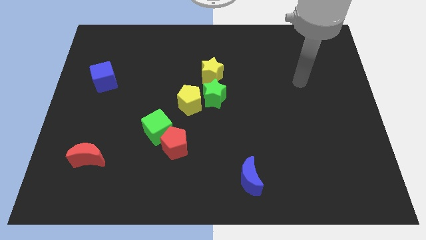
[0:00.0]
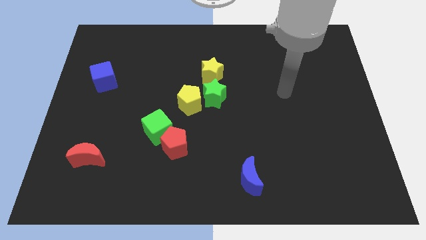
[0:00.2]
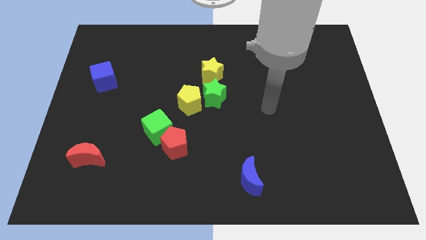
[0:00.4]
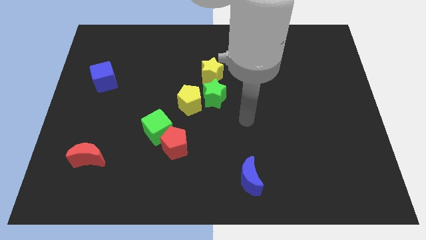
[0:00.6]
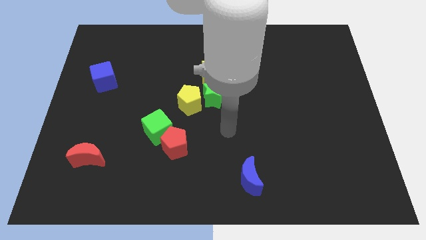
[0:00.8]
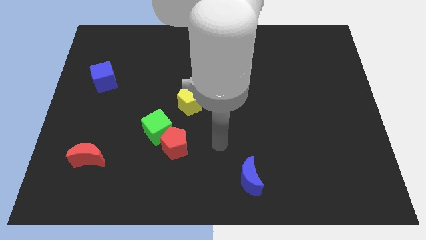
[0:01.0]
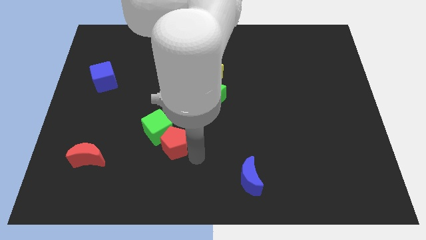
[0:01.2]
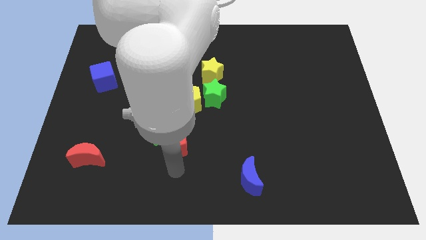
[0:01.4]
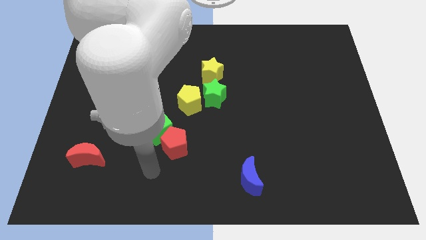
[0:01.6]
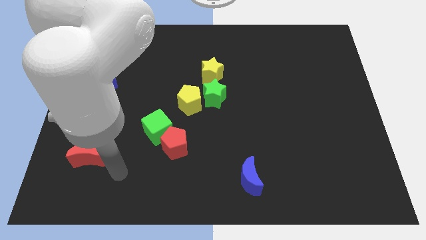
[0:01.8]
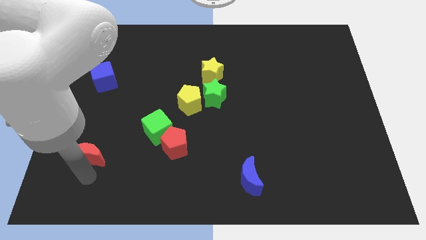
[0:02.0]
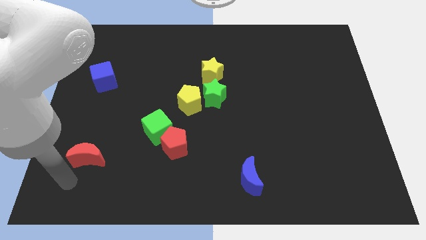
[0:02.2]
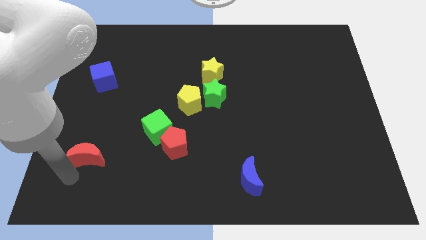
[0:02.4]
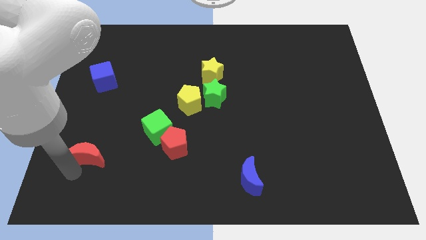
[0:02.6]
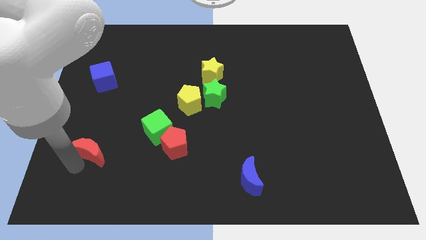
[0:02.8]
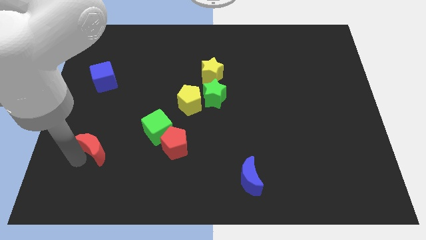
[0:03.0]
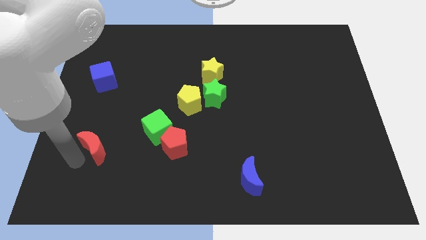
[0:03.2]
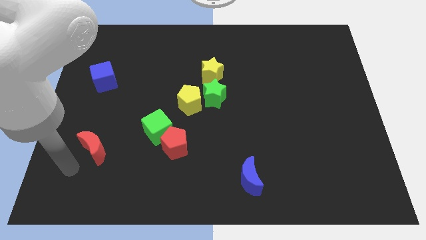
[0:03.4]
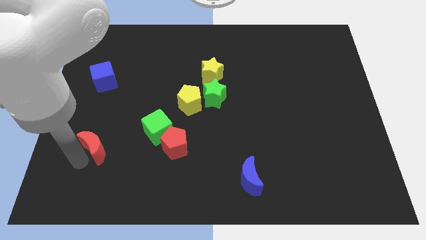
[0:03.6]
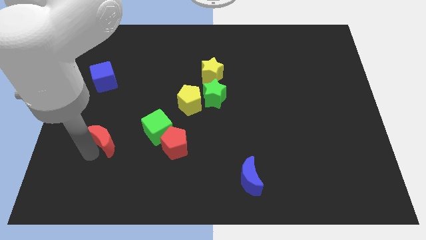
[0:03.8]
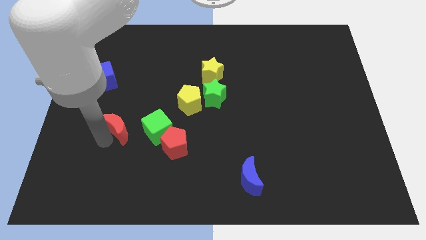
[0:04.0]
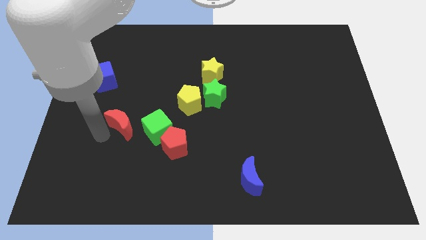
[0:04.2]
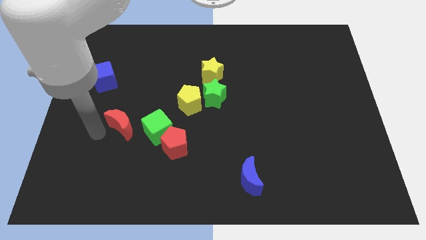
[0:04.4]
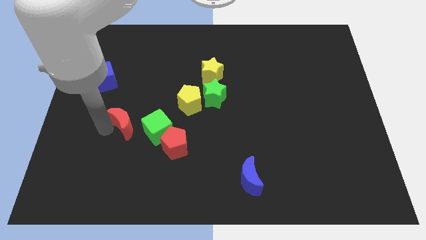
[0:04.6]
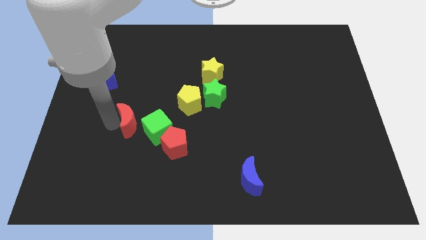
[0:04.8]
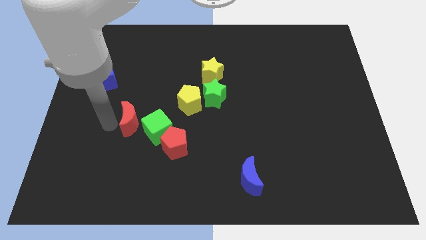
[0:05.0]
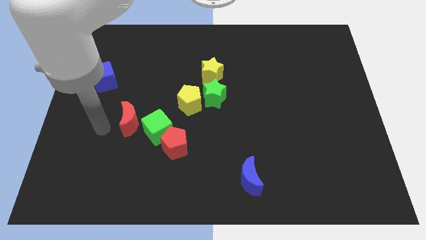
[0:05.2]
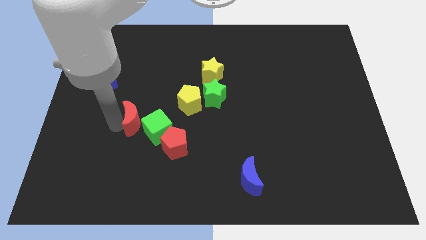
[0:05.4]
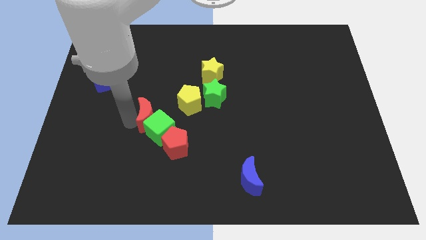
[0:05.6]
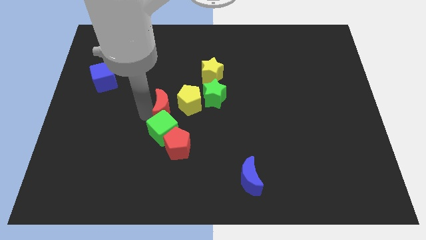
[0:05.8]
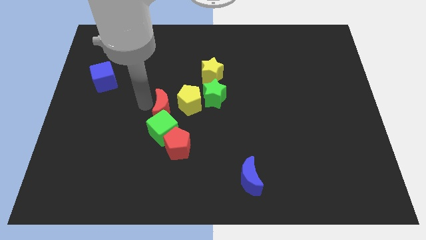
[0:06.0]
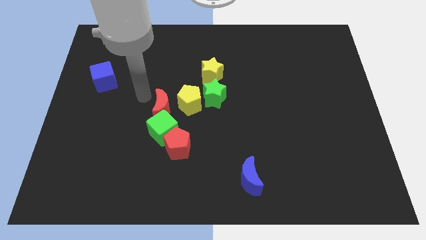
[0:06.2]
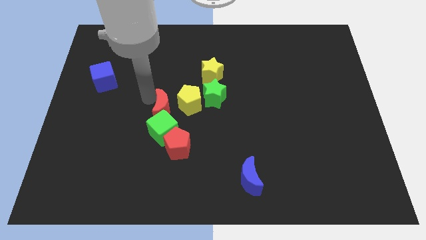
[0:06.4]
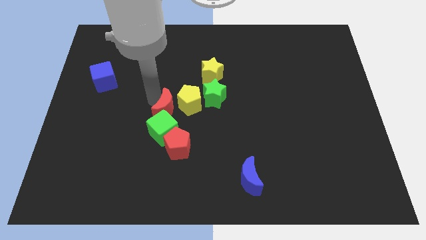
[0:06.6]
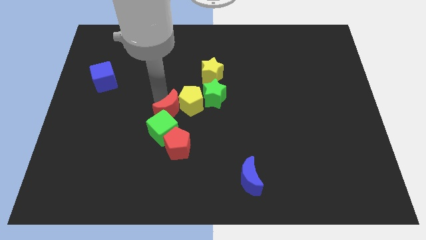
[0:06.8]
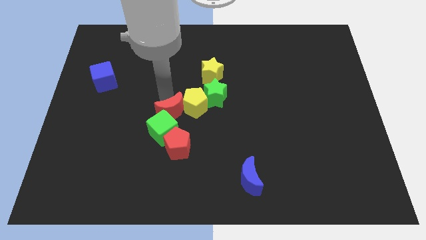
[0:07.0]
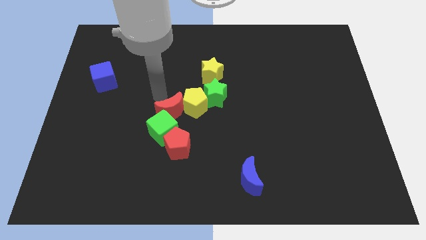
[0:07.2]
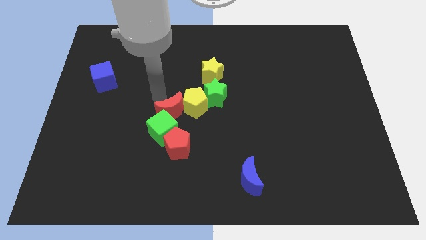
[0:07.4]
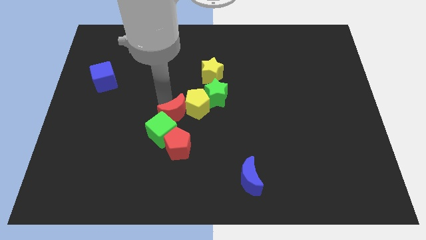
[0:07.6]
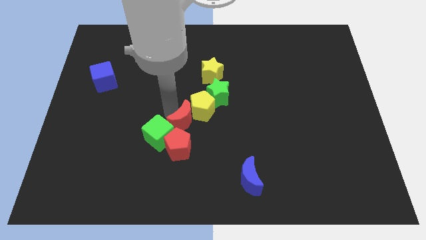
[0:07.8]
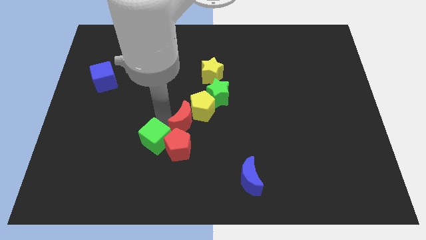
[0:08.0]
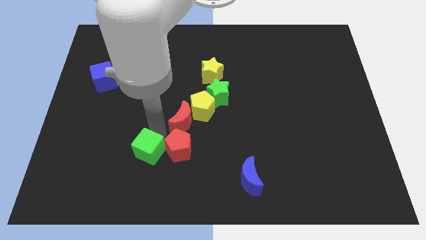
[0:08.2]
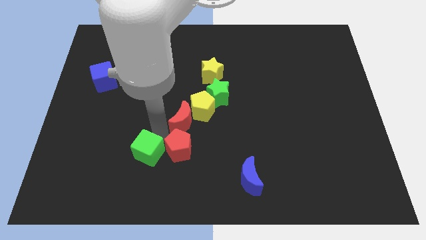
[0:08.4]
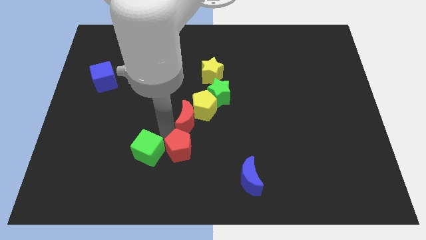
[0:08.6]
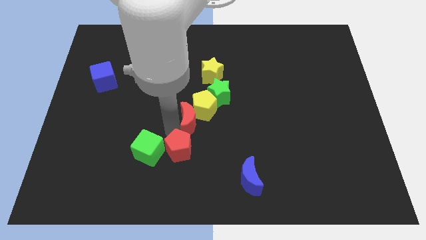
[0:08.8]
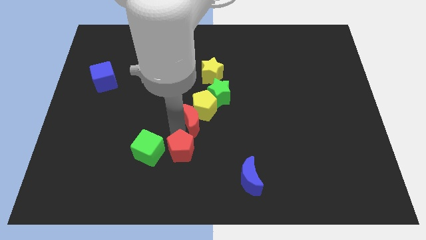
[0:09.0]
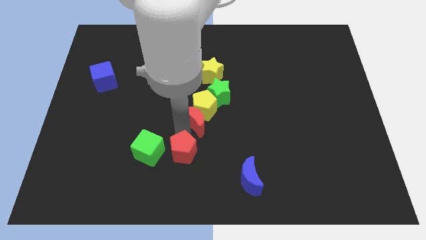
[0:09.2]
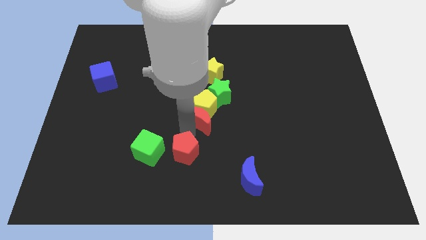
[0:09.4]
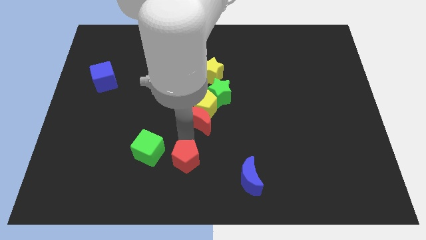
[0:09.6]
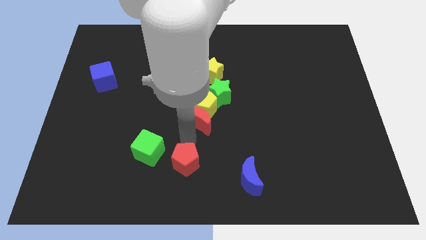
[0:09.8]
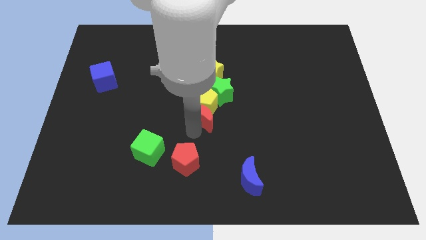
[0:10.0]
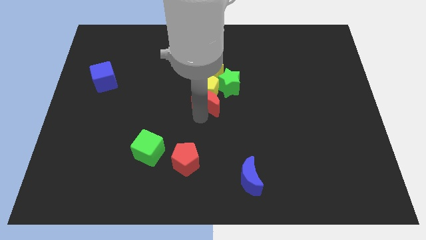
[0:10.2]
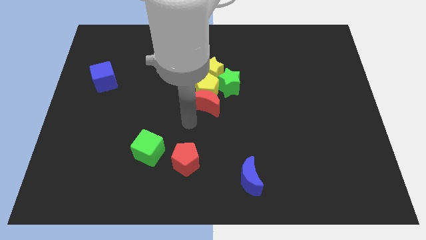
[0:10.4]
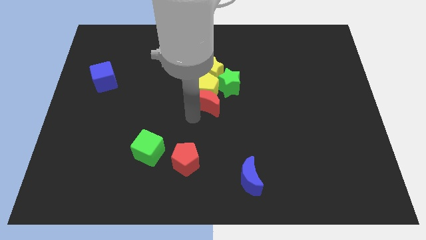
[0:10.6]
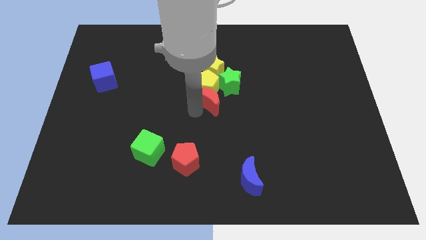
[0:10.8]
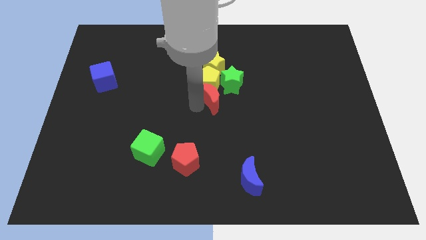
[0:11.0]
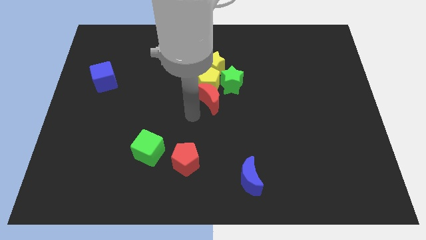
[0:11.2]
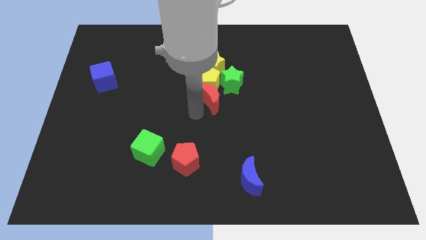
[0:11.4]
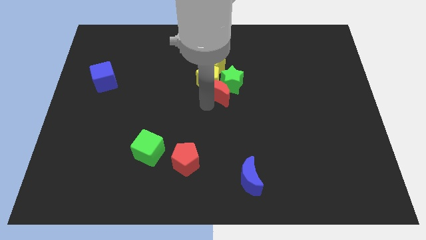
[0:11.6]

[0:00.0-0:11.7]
push the red moon close to the green star

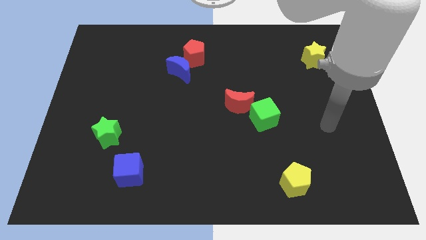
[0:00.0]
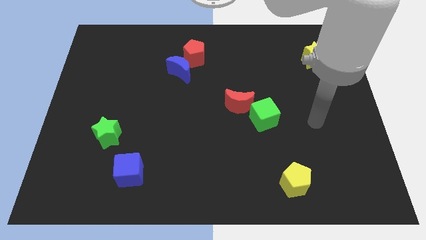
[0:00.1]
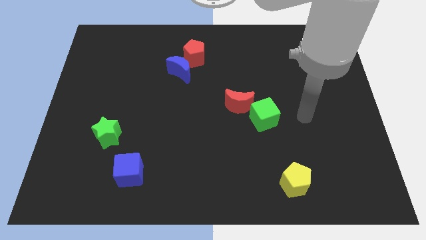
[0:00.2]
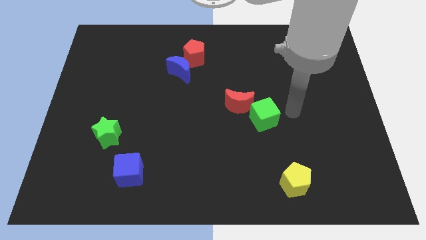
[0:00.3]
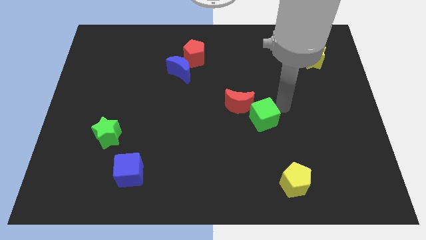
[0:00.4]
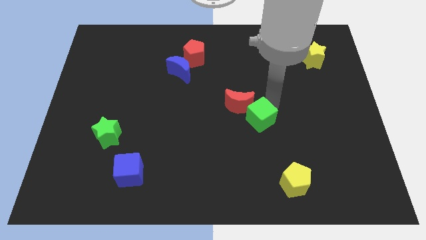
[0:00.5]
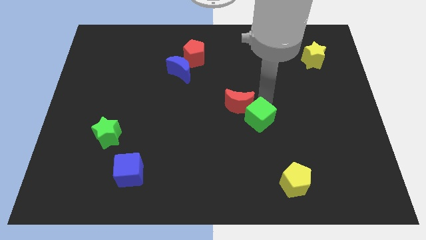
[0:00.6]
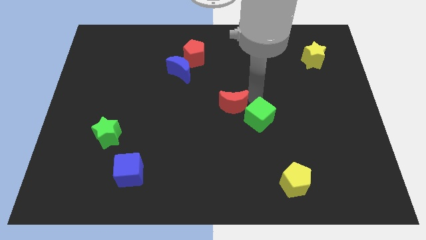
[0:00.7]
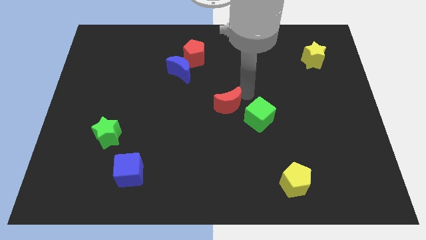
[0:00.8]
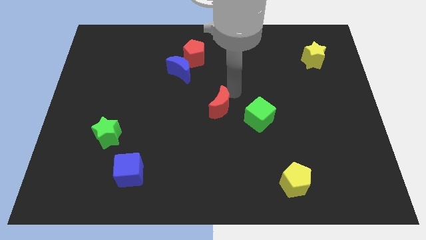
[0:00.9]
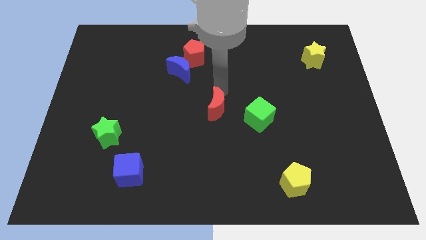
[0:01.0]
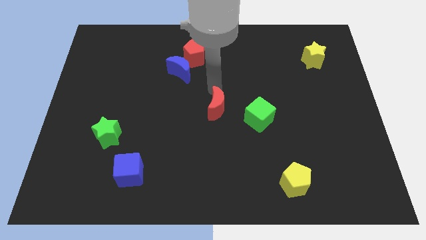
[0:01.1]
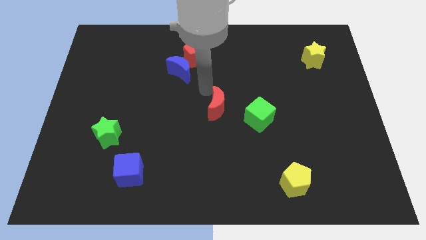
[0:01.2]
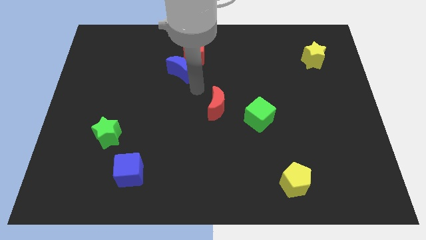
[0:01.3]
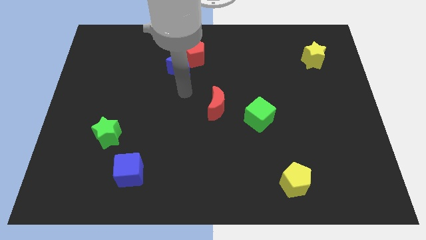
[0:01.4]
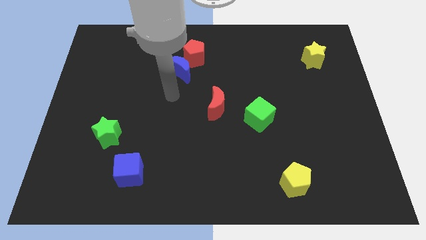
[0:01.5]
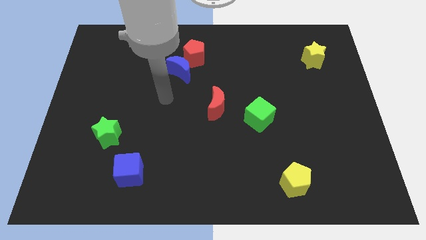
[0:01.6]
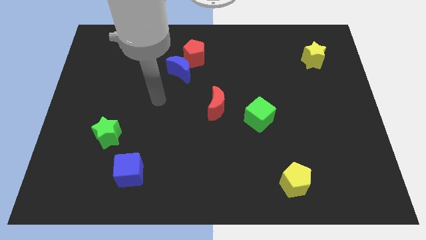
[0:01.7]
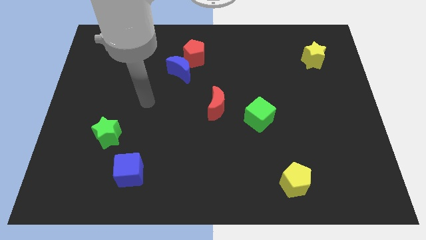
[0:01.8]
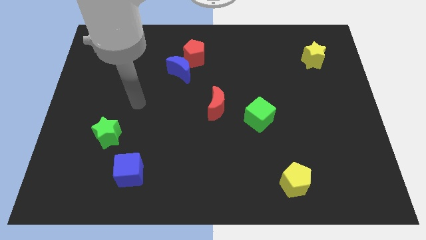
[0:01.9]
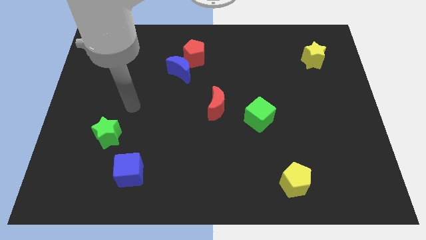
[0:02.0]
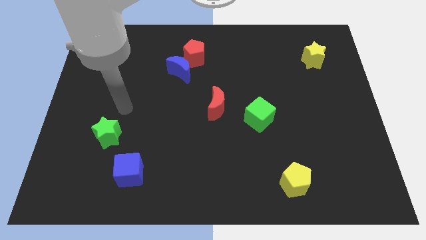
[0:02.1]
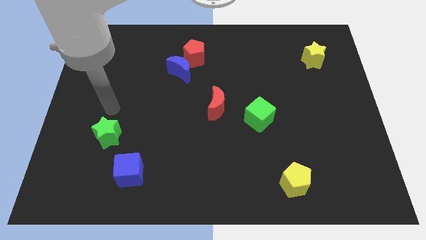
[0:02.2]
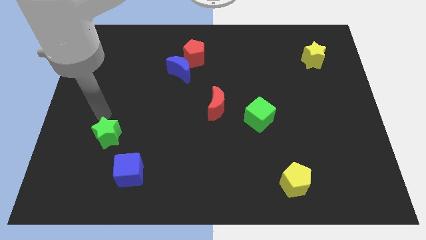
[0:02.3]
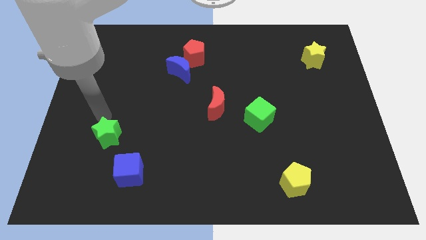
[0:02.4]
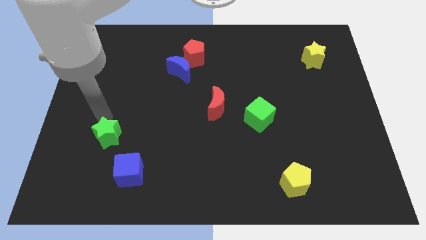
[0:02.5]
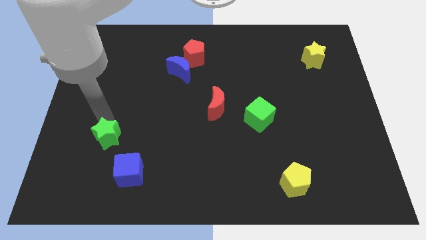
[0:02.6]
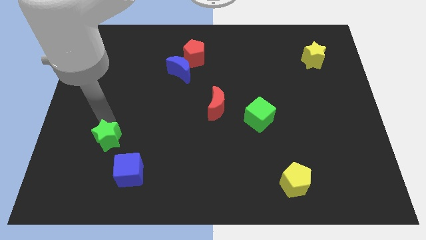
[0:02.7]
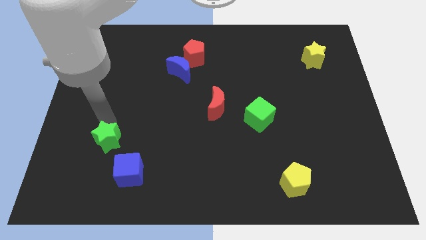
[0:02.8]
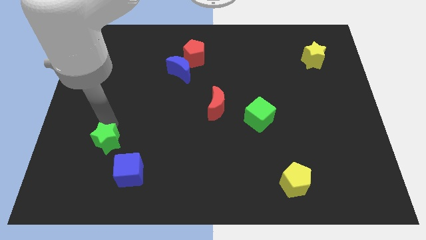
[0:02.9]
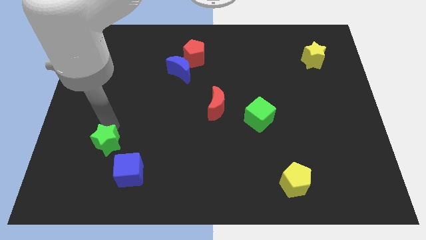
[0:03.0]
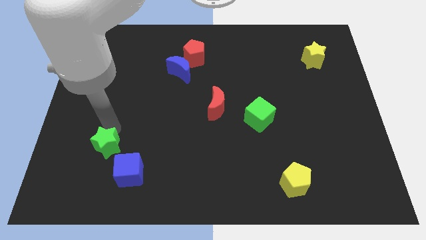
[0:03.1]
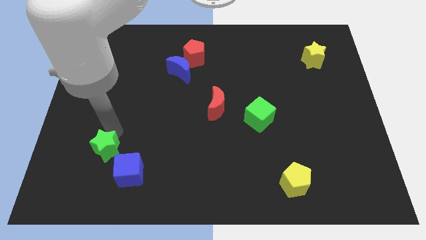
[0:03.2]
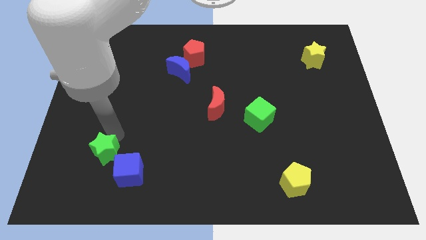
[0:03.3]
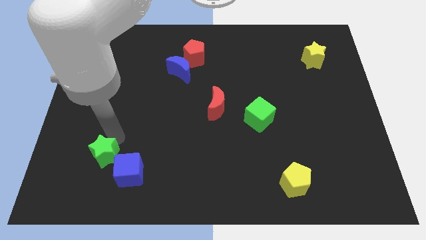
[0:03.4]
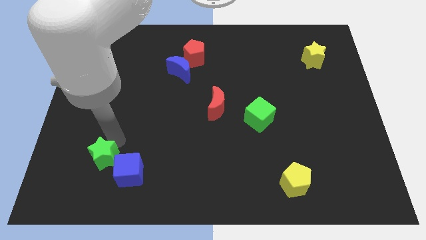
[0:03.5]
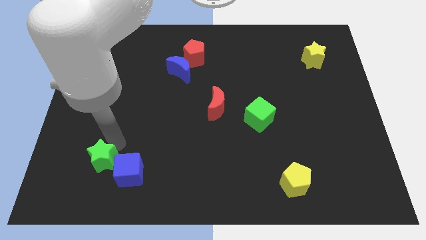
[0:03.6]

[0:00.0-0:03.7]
slide the green star close to the blue cube
